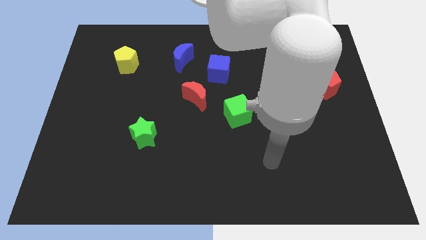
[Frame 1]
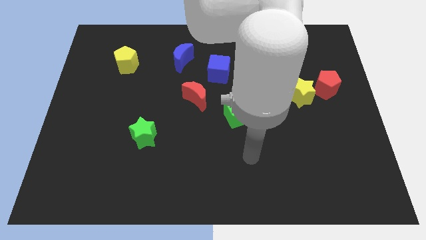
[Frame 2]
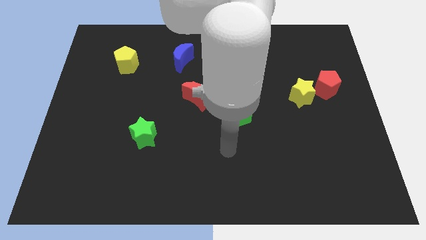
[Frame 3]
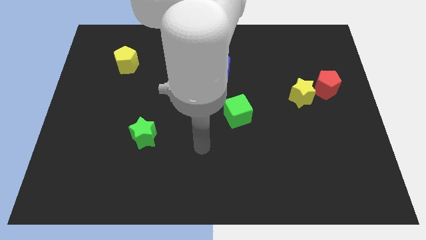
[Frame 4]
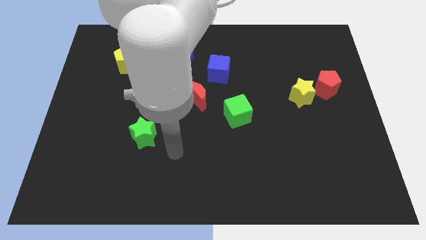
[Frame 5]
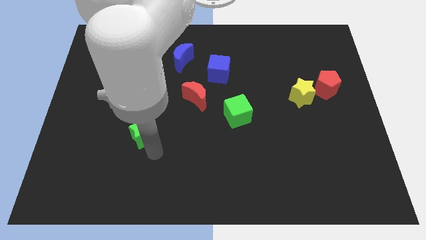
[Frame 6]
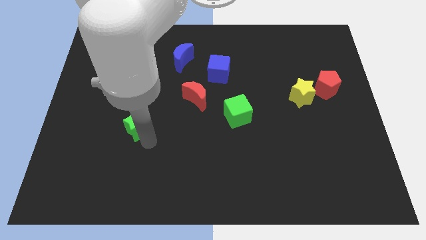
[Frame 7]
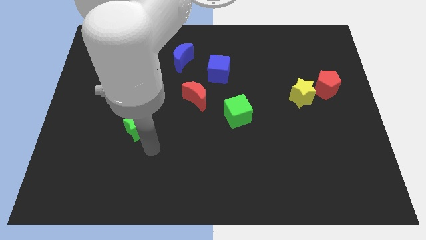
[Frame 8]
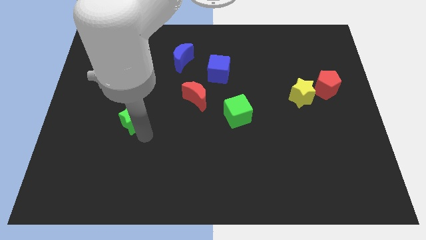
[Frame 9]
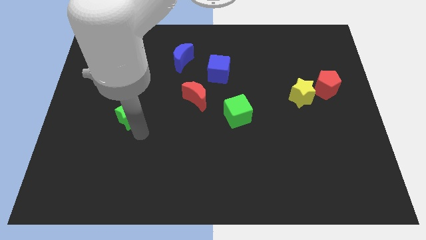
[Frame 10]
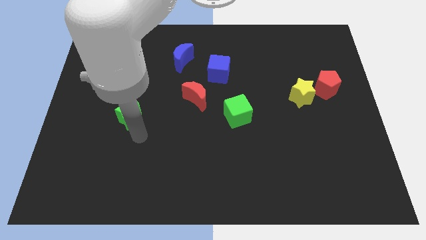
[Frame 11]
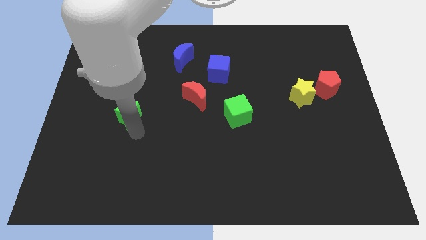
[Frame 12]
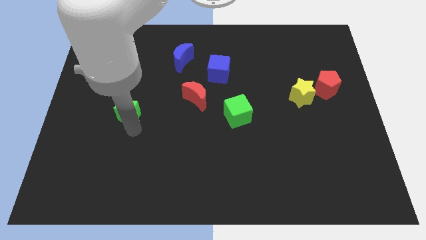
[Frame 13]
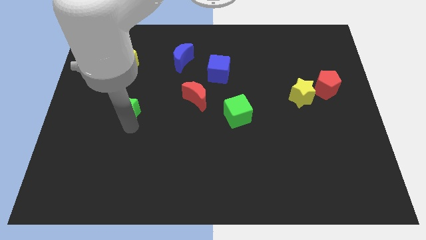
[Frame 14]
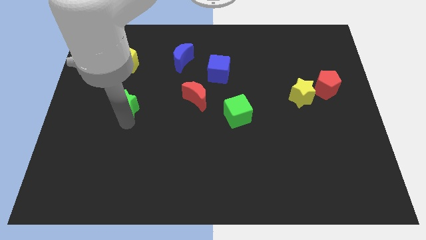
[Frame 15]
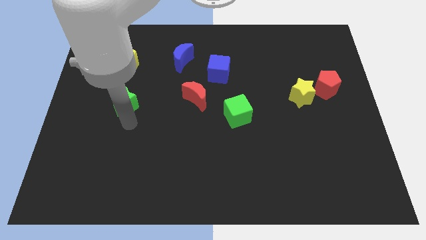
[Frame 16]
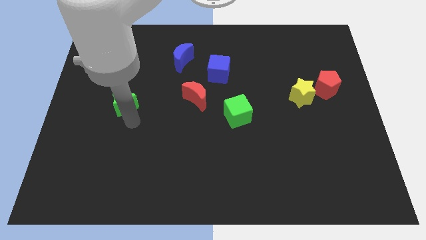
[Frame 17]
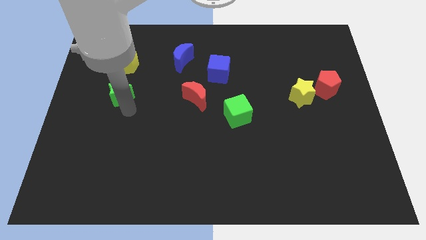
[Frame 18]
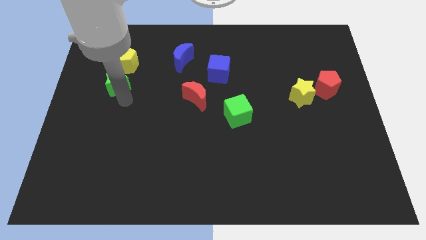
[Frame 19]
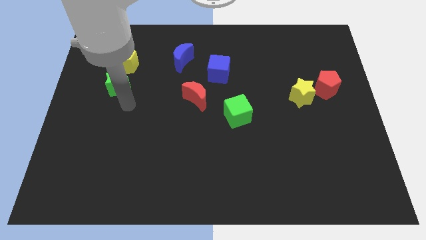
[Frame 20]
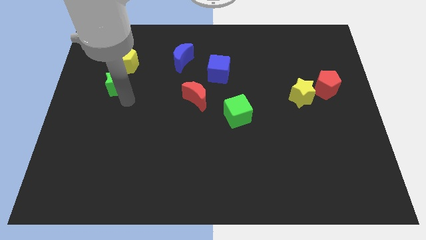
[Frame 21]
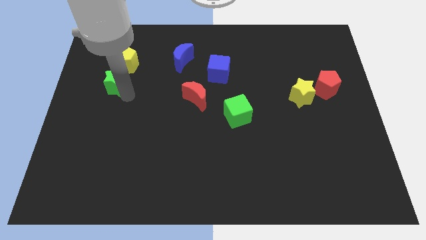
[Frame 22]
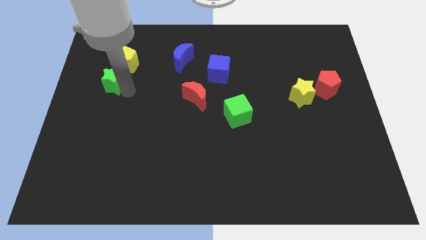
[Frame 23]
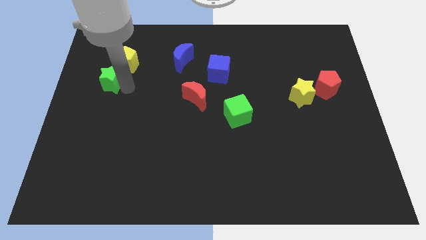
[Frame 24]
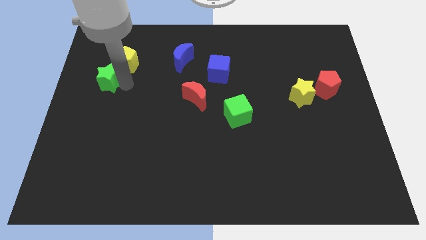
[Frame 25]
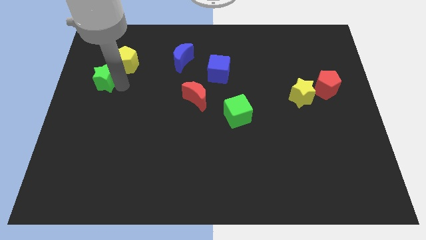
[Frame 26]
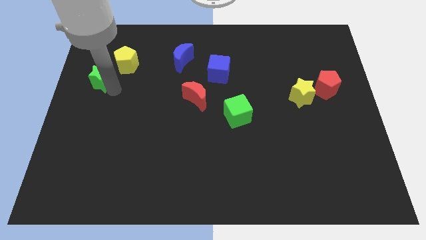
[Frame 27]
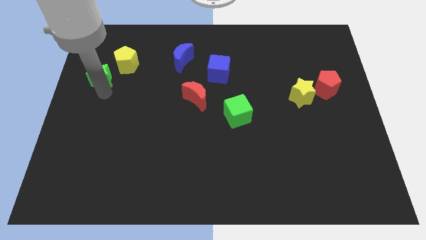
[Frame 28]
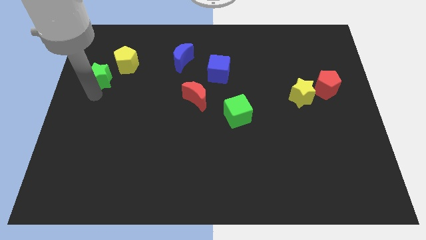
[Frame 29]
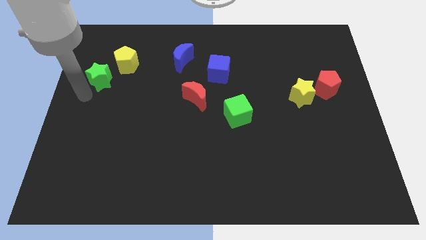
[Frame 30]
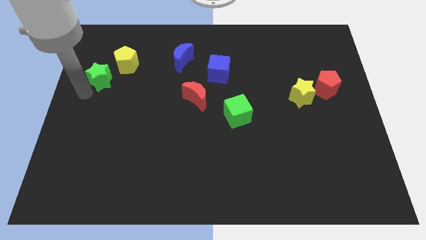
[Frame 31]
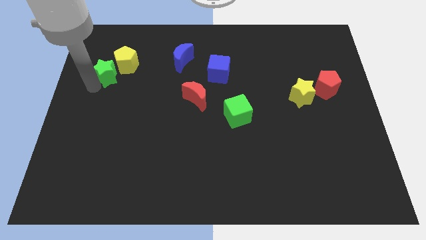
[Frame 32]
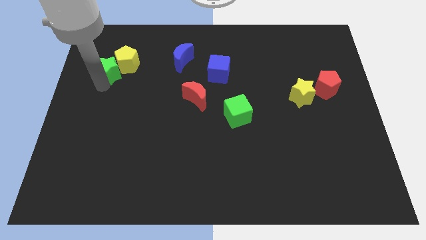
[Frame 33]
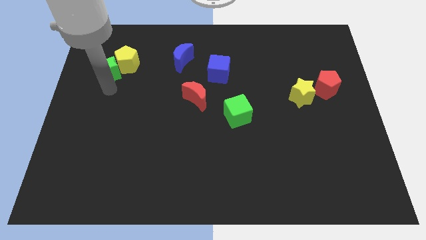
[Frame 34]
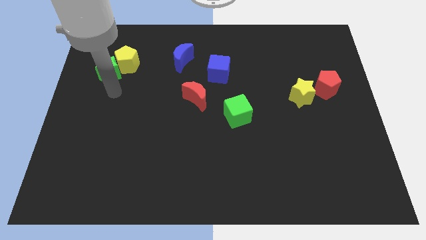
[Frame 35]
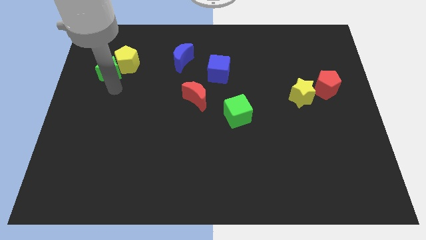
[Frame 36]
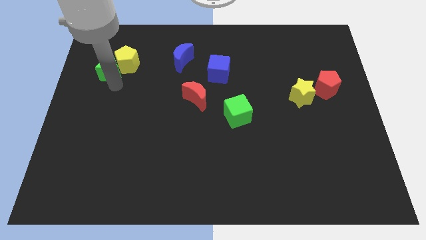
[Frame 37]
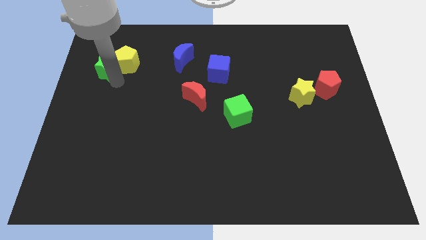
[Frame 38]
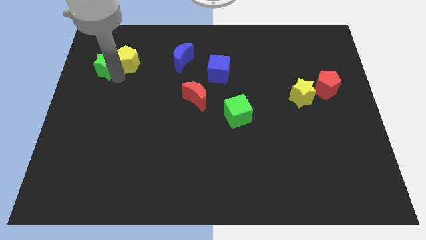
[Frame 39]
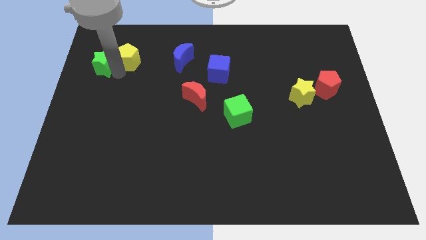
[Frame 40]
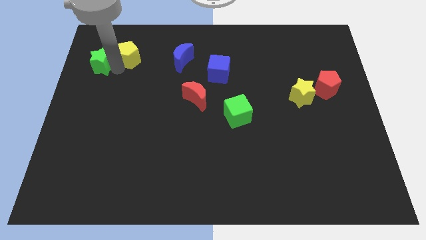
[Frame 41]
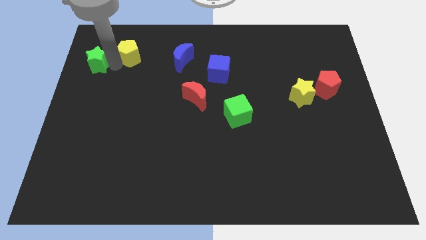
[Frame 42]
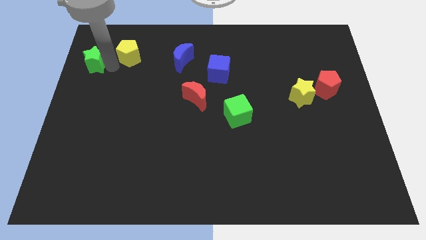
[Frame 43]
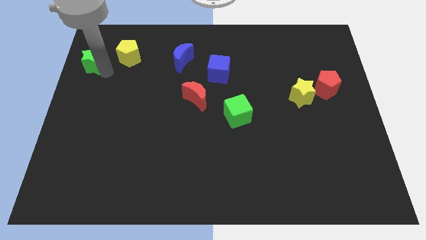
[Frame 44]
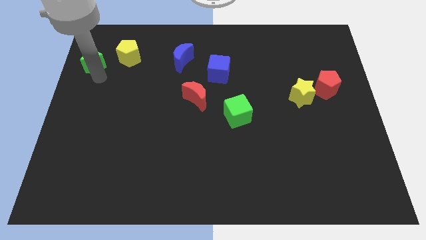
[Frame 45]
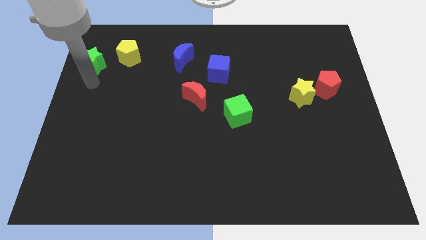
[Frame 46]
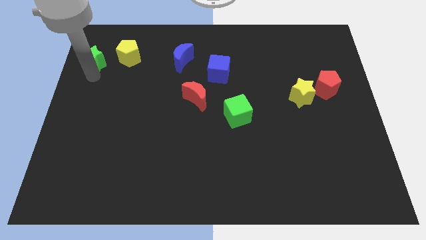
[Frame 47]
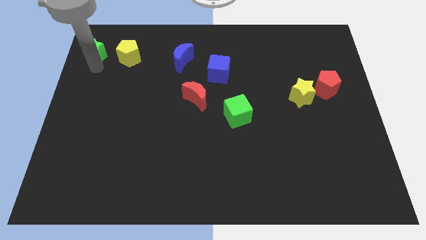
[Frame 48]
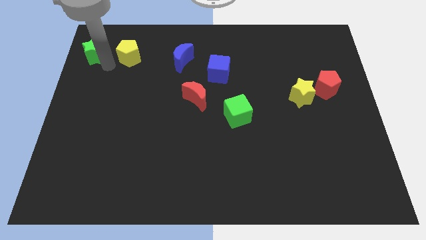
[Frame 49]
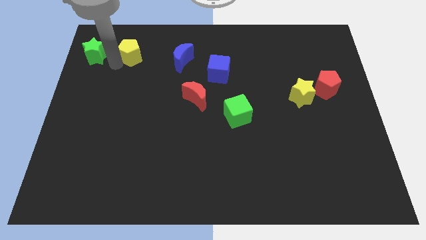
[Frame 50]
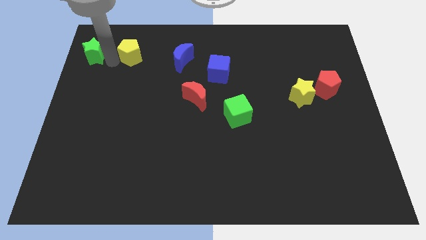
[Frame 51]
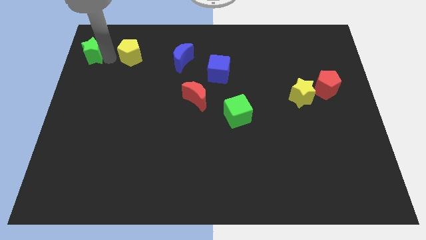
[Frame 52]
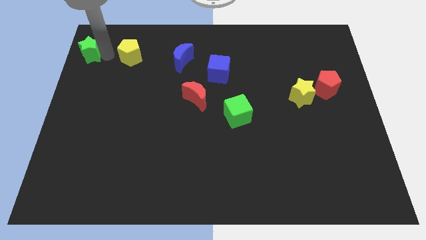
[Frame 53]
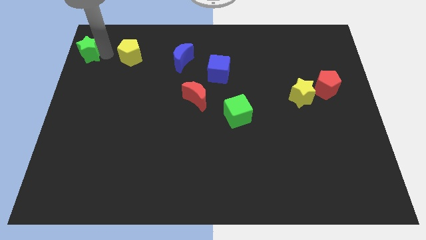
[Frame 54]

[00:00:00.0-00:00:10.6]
move the green star to the top left of the board

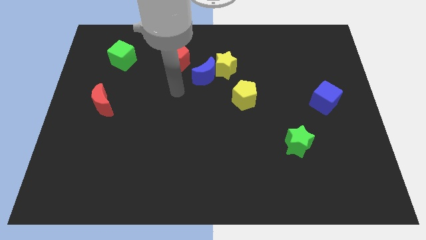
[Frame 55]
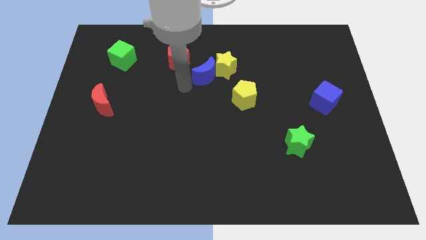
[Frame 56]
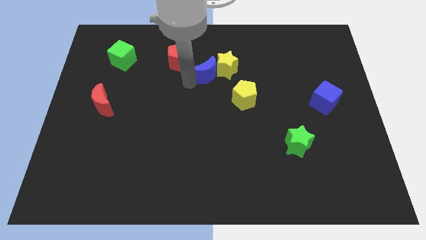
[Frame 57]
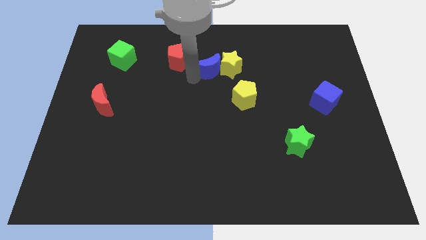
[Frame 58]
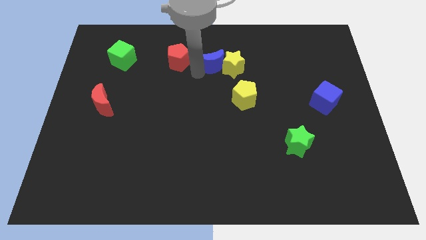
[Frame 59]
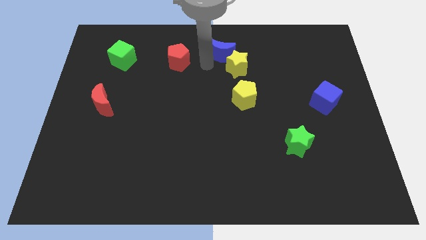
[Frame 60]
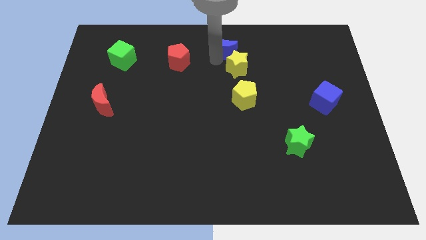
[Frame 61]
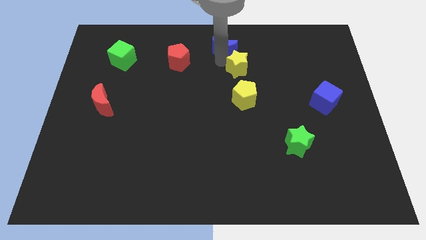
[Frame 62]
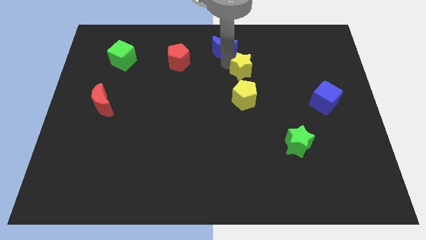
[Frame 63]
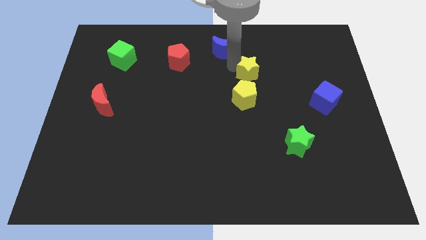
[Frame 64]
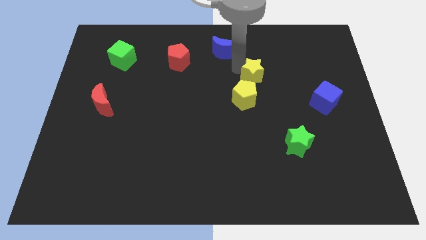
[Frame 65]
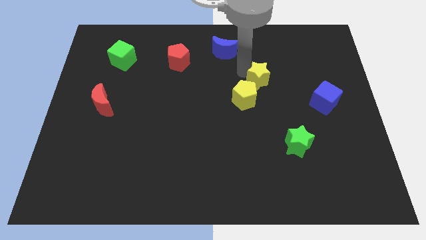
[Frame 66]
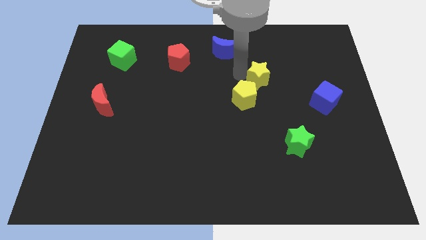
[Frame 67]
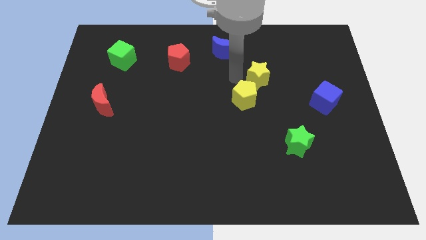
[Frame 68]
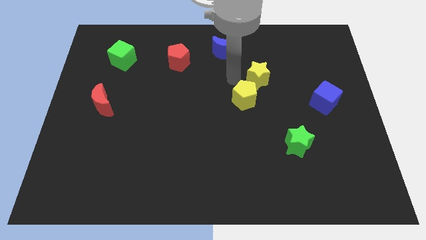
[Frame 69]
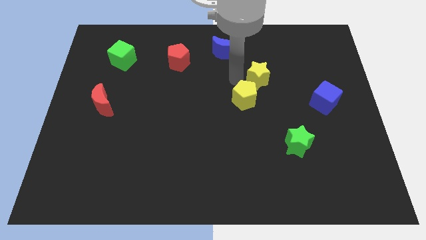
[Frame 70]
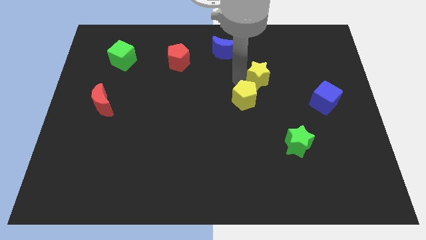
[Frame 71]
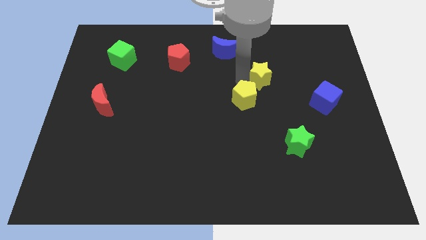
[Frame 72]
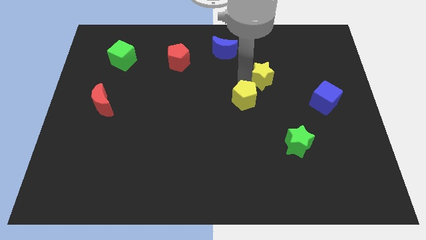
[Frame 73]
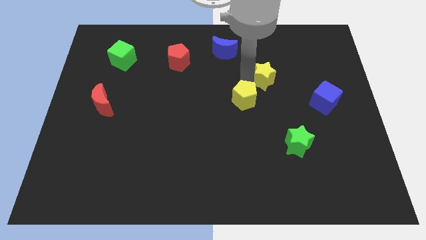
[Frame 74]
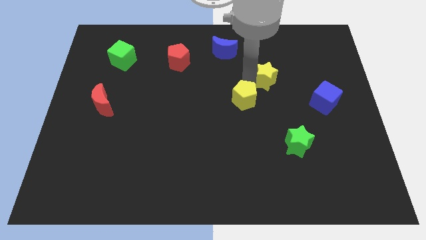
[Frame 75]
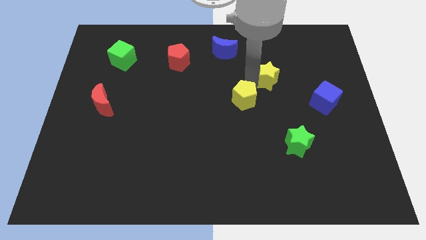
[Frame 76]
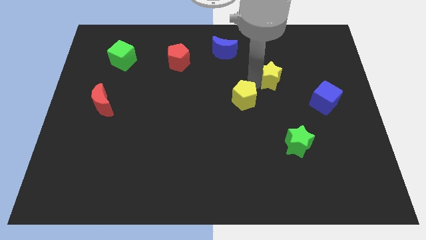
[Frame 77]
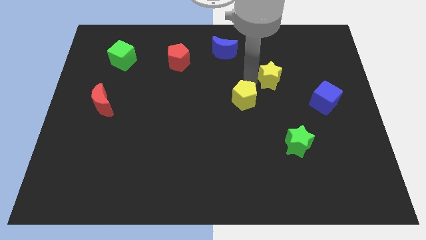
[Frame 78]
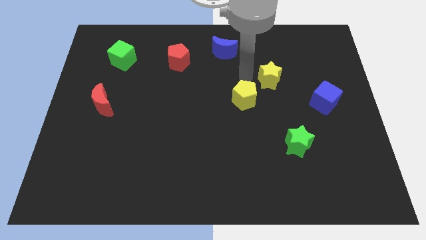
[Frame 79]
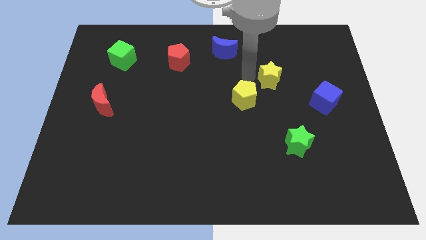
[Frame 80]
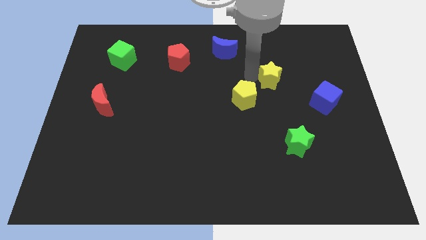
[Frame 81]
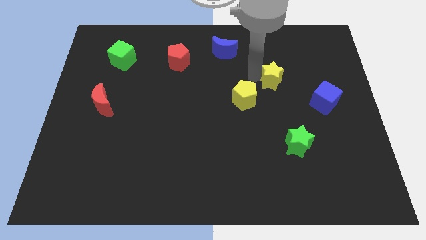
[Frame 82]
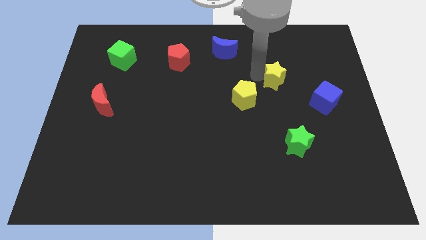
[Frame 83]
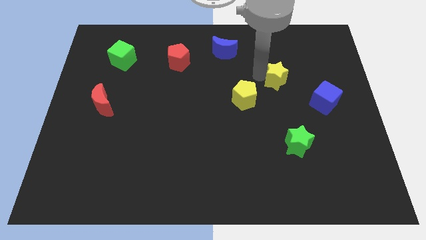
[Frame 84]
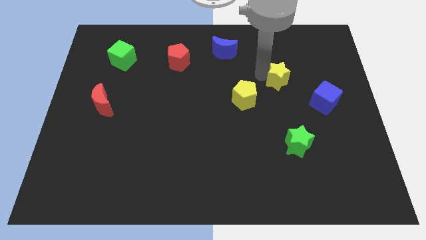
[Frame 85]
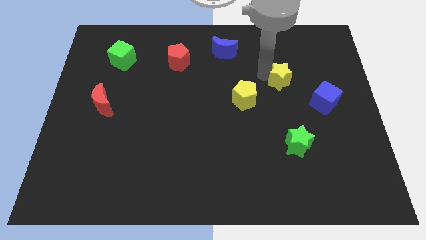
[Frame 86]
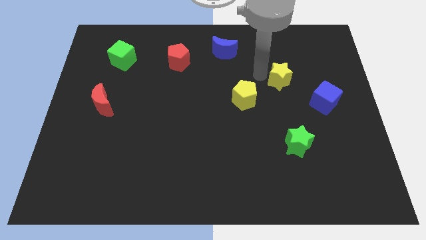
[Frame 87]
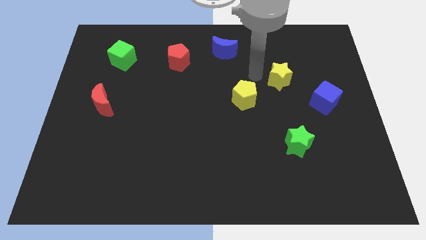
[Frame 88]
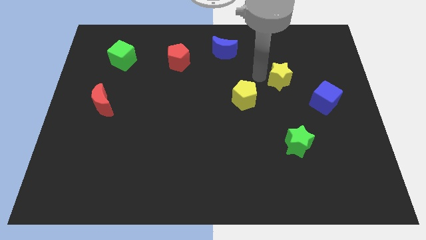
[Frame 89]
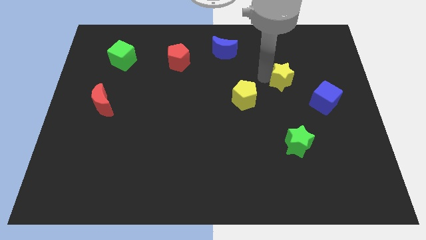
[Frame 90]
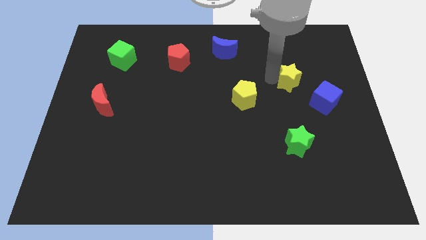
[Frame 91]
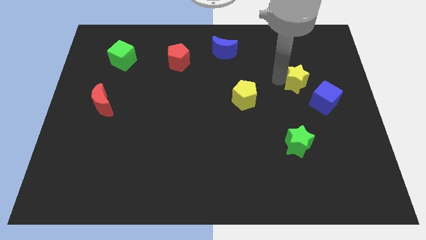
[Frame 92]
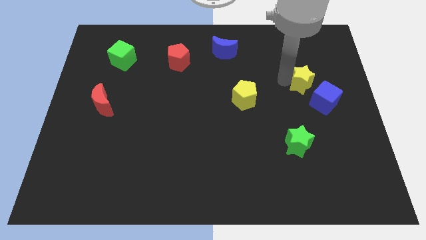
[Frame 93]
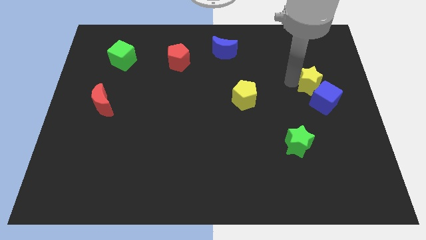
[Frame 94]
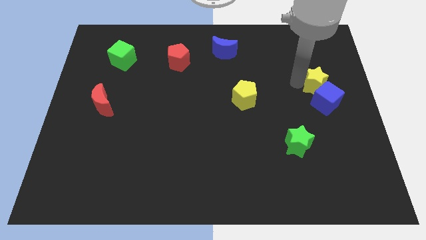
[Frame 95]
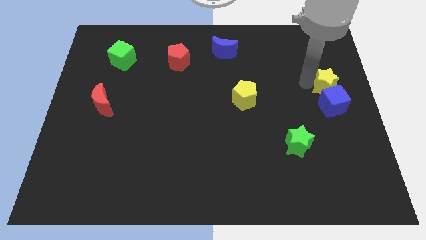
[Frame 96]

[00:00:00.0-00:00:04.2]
slide the yellow star to the right side of the board
